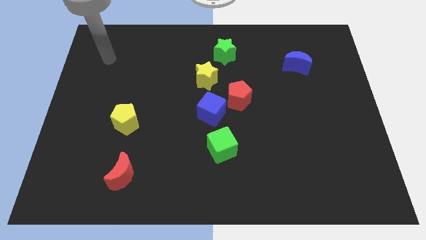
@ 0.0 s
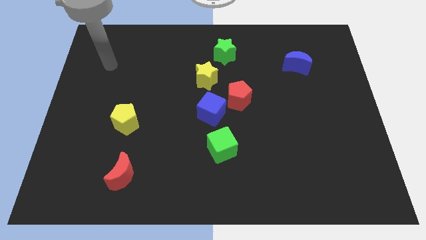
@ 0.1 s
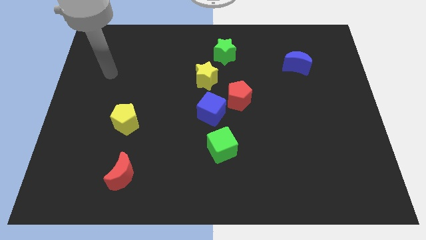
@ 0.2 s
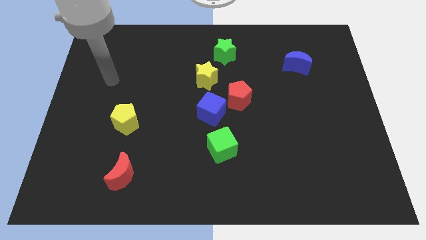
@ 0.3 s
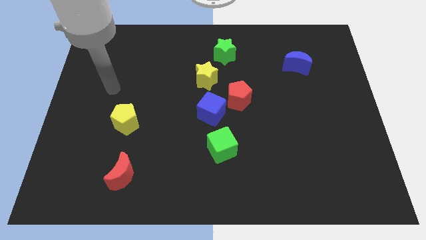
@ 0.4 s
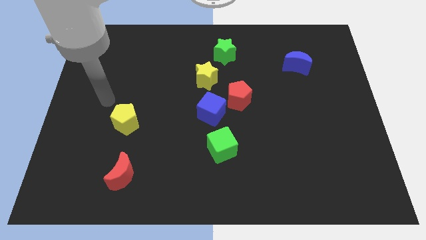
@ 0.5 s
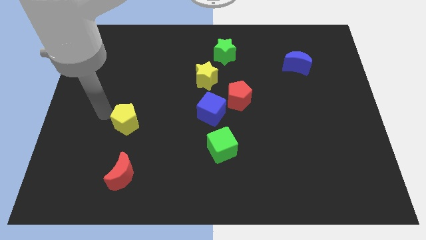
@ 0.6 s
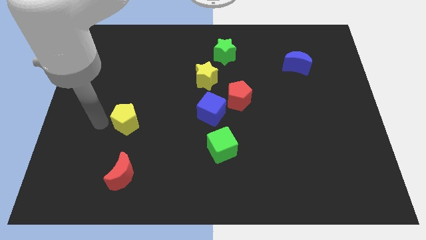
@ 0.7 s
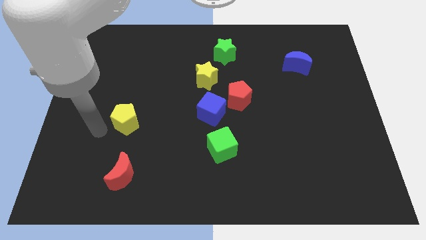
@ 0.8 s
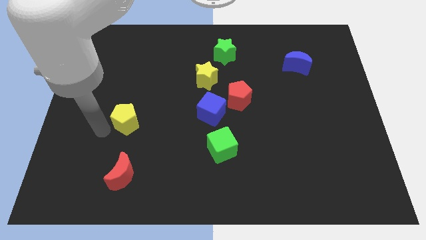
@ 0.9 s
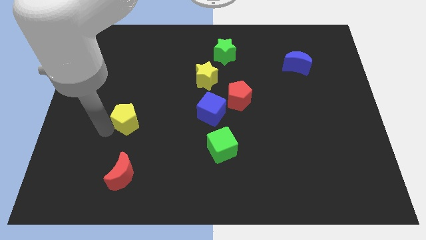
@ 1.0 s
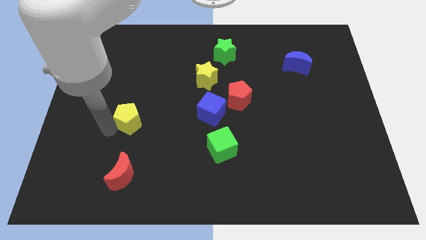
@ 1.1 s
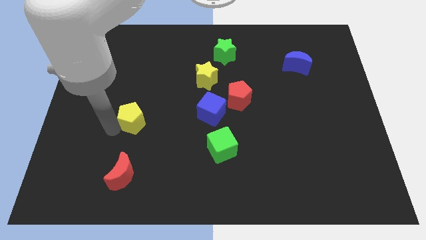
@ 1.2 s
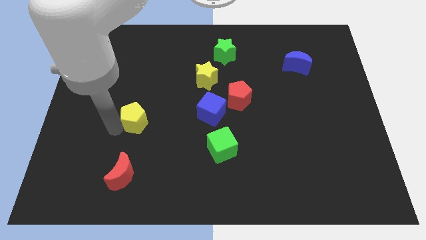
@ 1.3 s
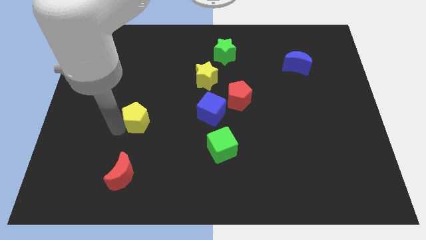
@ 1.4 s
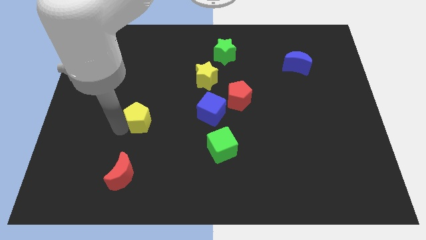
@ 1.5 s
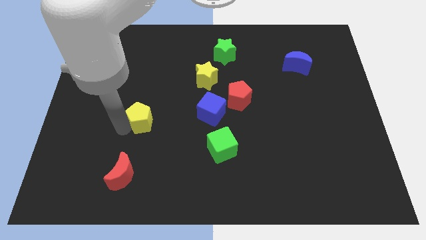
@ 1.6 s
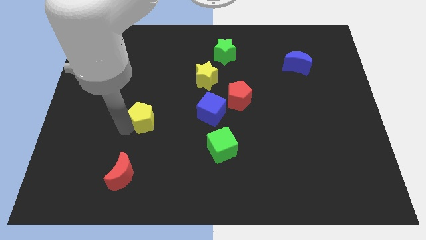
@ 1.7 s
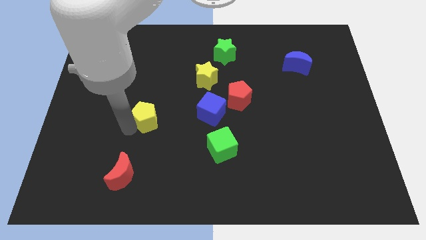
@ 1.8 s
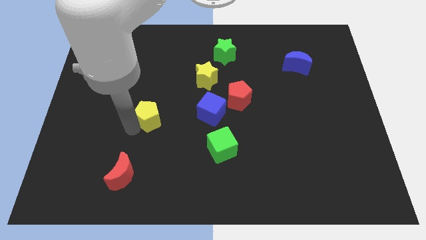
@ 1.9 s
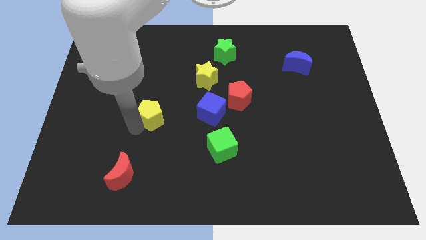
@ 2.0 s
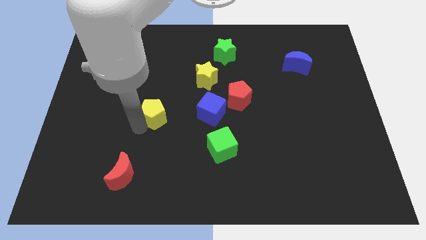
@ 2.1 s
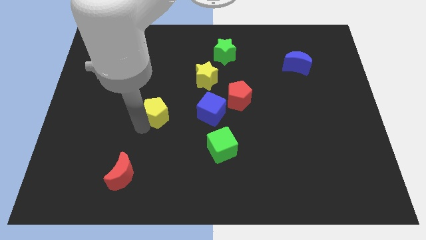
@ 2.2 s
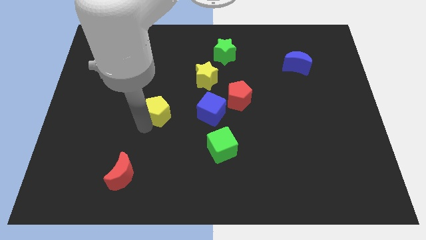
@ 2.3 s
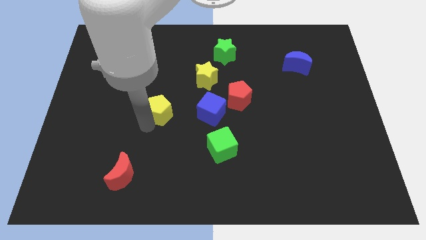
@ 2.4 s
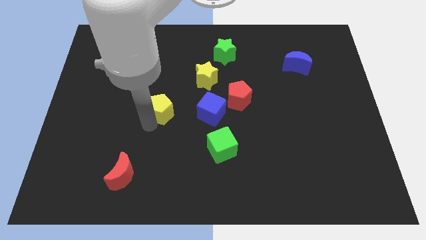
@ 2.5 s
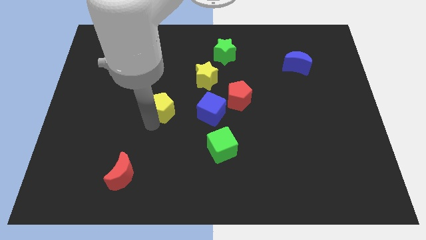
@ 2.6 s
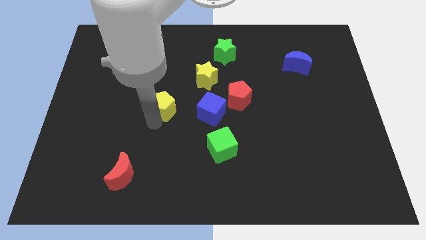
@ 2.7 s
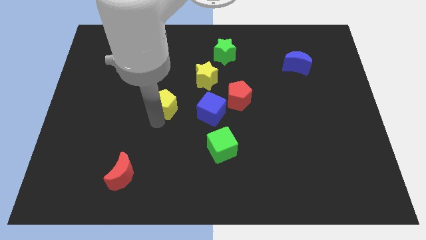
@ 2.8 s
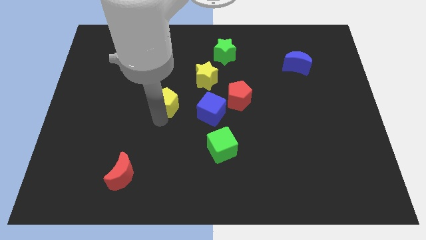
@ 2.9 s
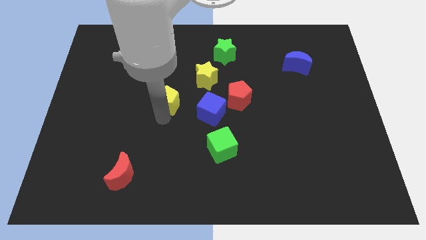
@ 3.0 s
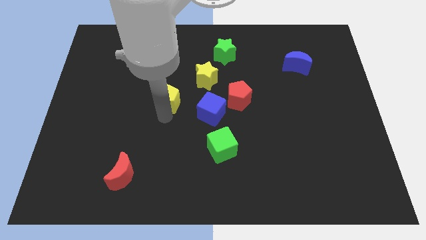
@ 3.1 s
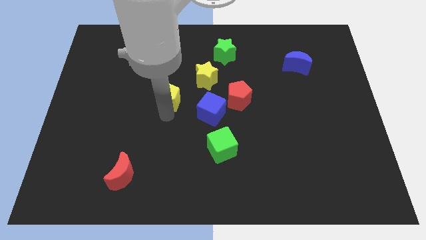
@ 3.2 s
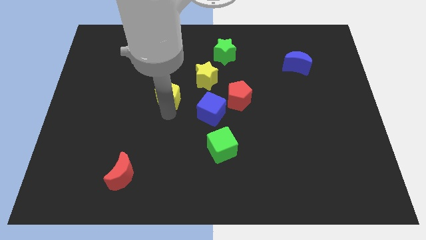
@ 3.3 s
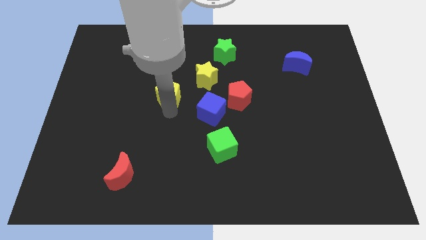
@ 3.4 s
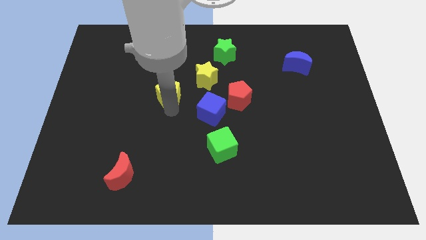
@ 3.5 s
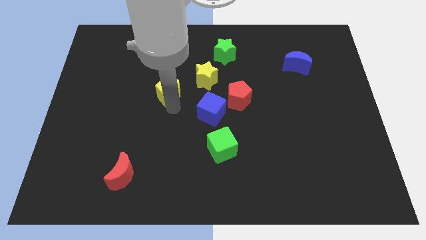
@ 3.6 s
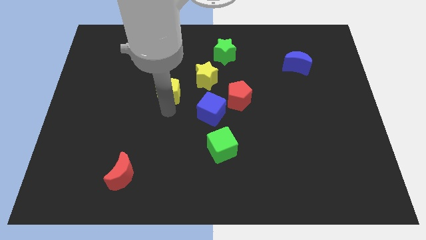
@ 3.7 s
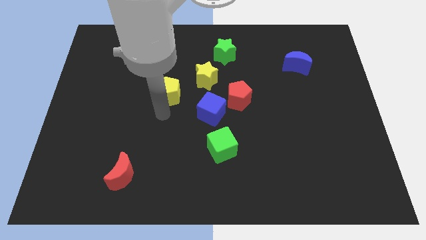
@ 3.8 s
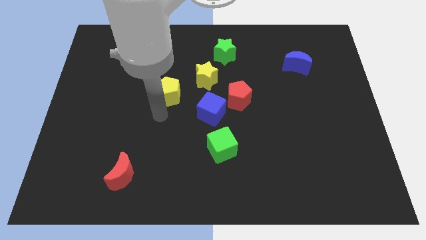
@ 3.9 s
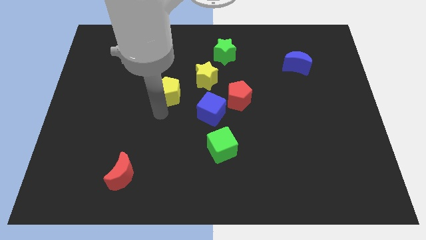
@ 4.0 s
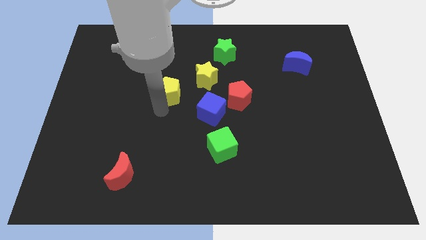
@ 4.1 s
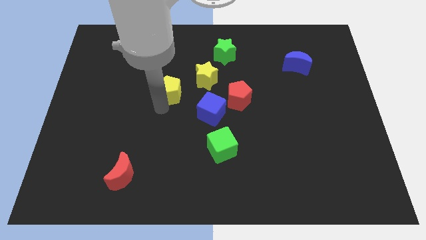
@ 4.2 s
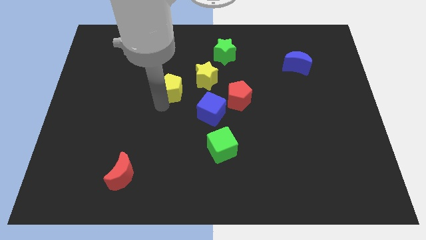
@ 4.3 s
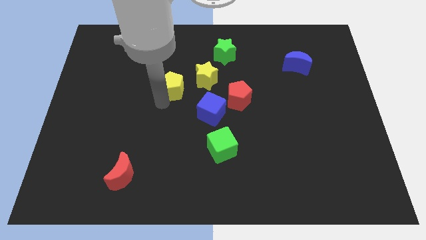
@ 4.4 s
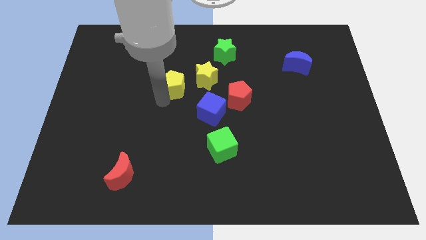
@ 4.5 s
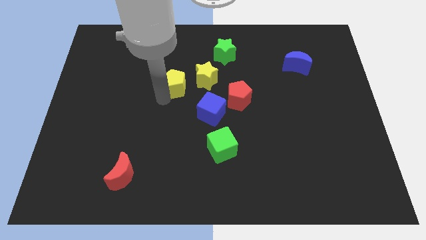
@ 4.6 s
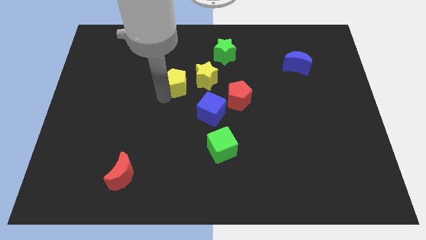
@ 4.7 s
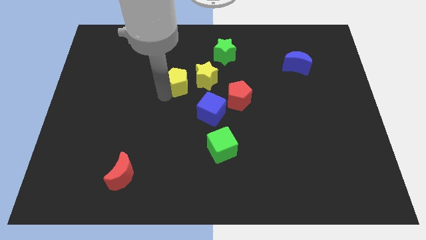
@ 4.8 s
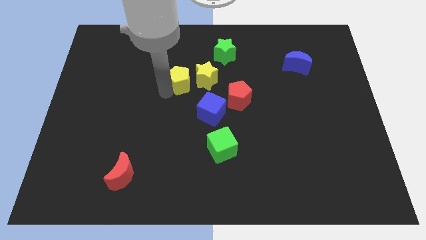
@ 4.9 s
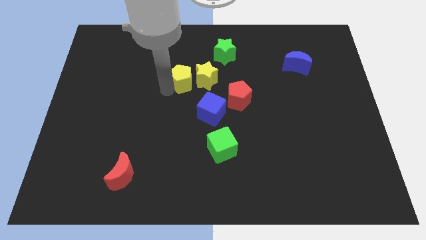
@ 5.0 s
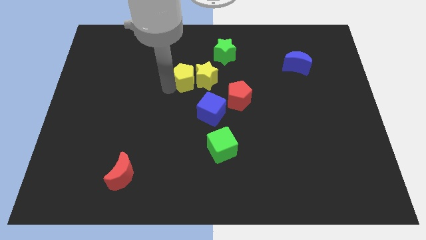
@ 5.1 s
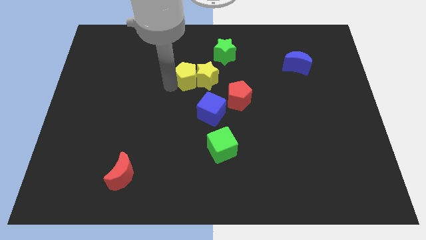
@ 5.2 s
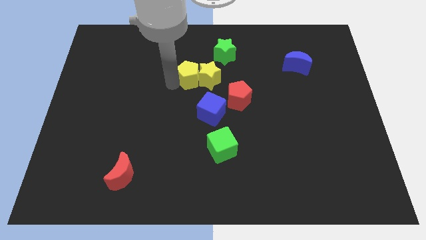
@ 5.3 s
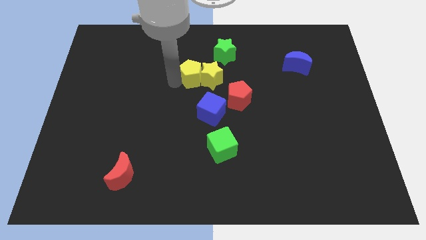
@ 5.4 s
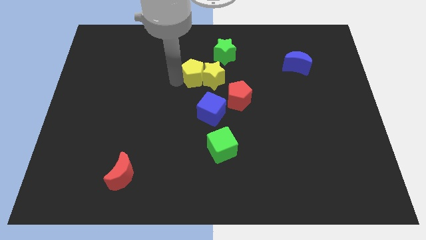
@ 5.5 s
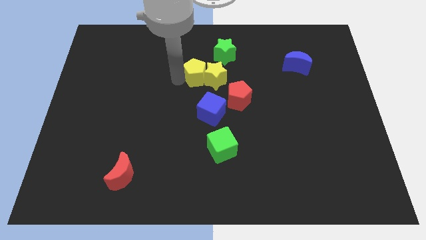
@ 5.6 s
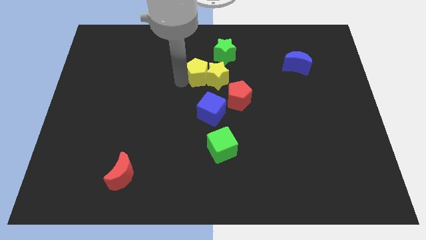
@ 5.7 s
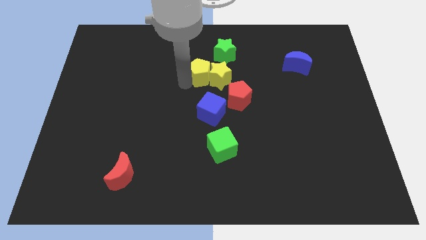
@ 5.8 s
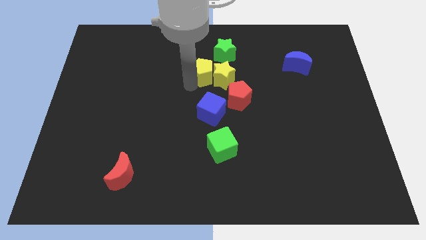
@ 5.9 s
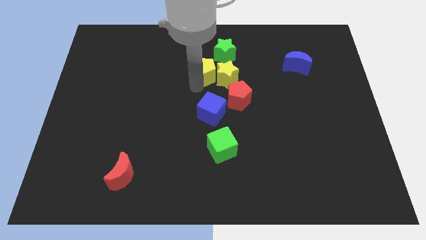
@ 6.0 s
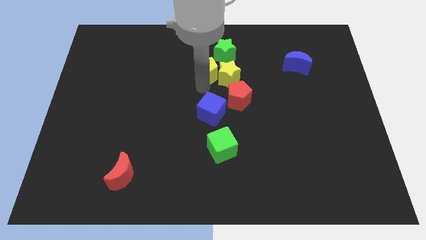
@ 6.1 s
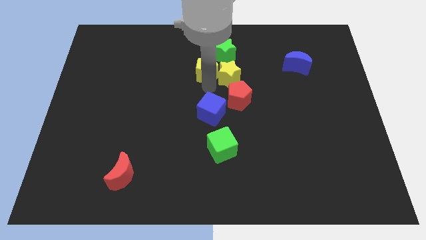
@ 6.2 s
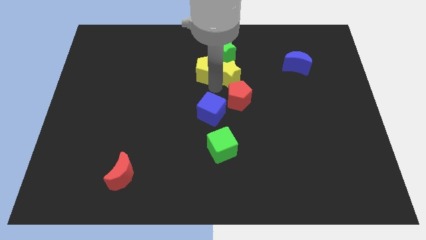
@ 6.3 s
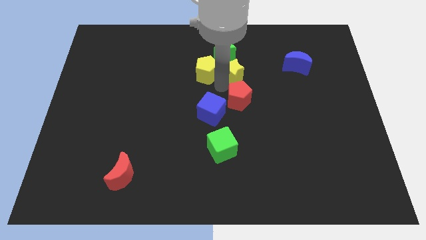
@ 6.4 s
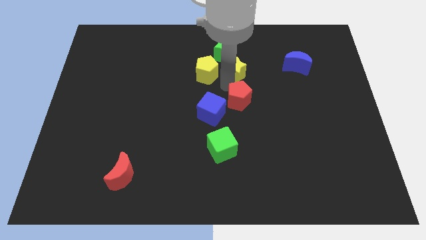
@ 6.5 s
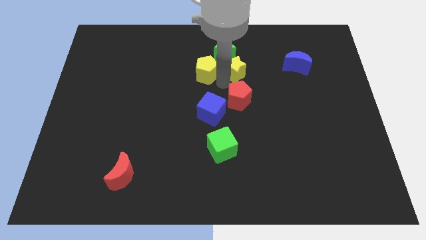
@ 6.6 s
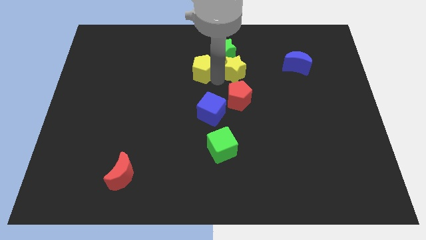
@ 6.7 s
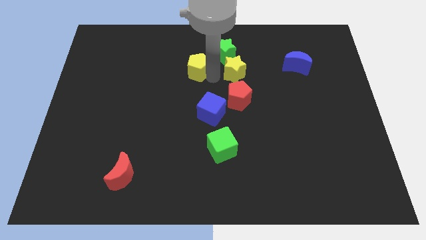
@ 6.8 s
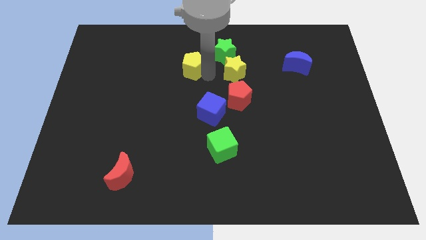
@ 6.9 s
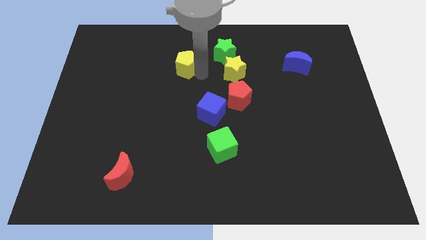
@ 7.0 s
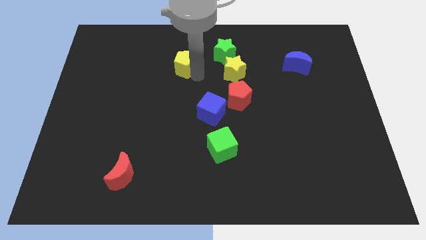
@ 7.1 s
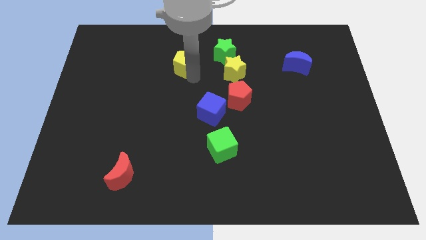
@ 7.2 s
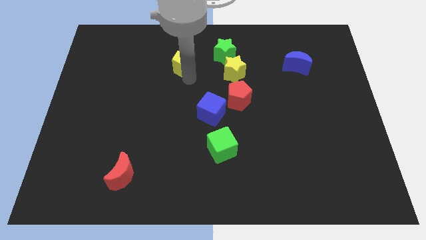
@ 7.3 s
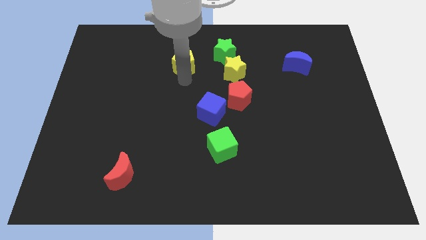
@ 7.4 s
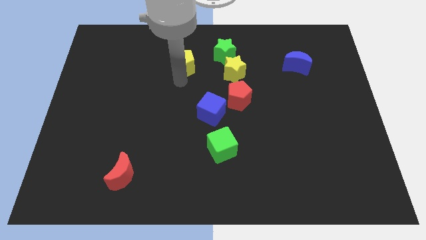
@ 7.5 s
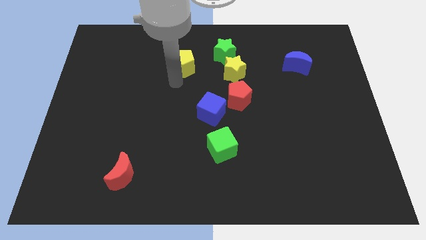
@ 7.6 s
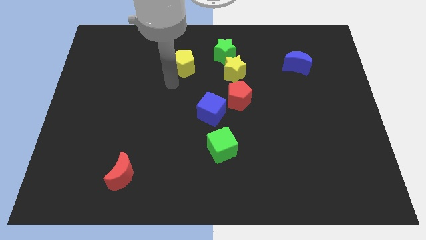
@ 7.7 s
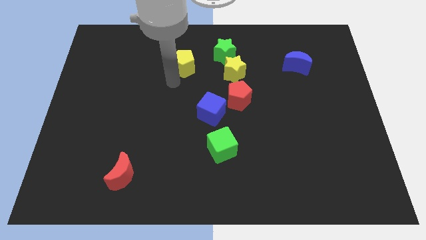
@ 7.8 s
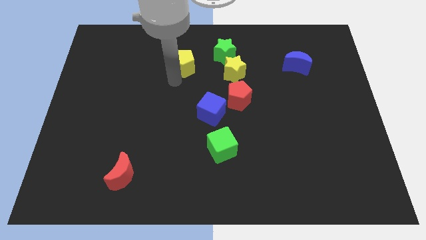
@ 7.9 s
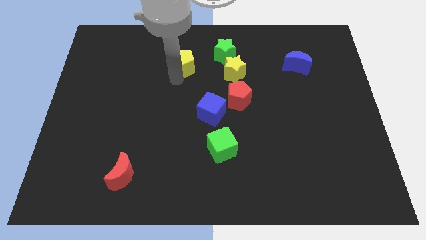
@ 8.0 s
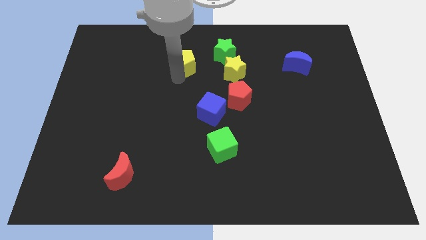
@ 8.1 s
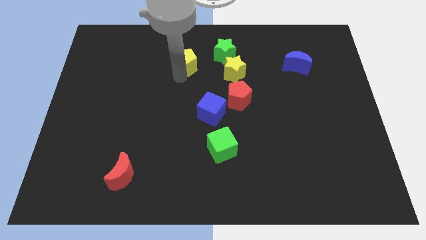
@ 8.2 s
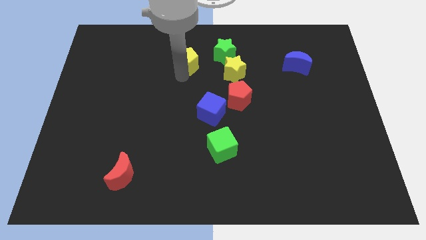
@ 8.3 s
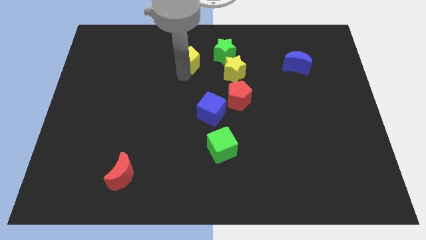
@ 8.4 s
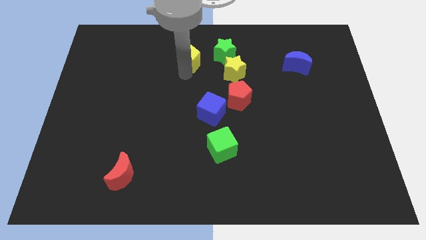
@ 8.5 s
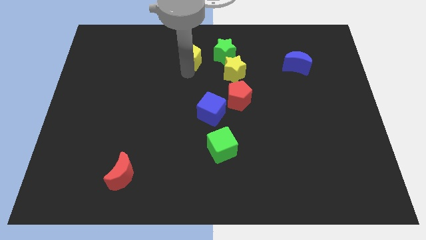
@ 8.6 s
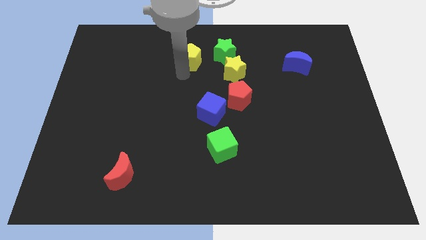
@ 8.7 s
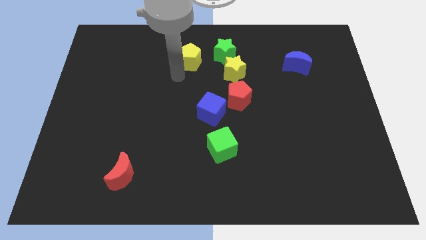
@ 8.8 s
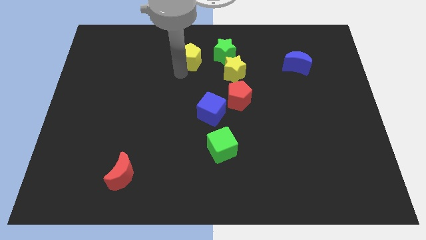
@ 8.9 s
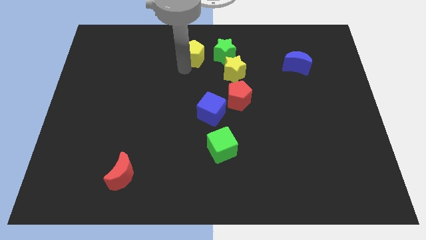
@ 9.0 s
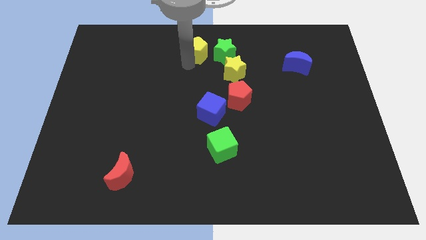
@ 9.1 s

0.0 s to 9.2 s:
put the yellow pentagon to the top
